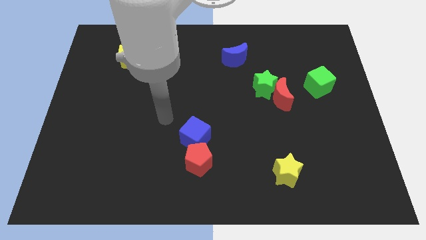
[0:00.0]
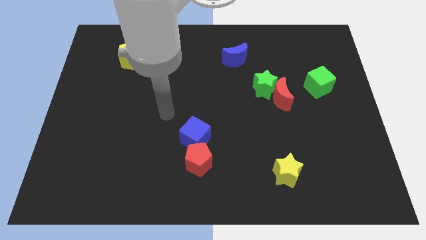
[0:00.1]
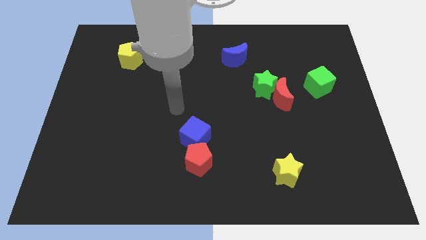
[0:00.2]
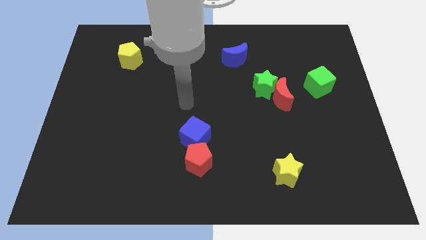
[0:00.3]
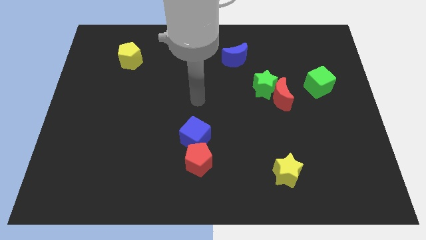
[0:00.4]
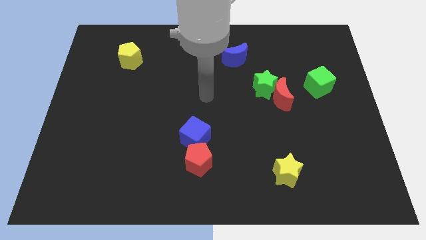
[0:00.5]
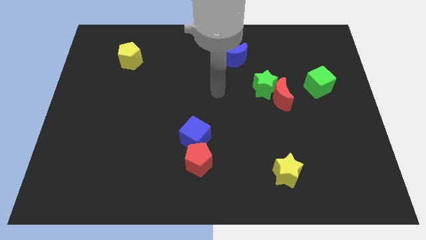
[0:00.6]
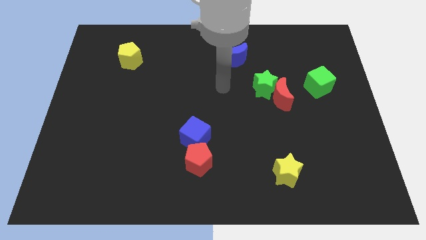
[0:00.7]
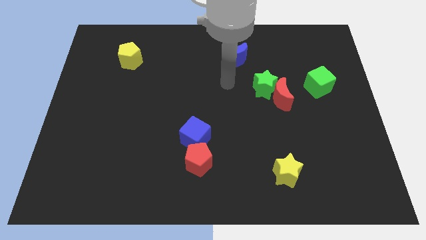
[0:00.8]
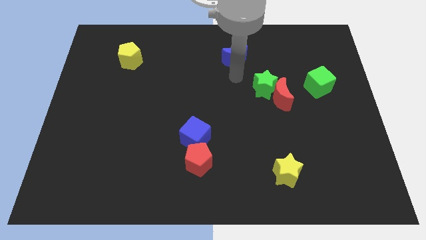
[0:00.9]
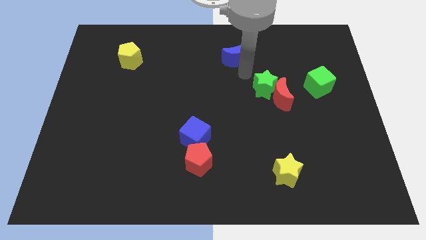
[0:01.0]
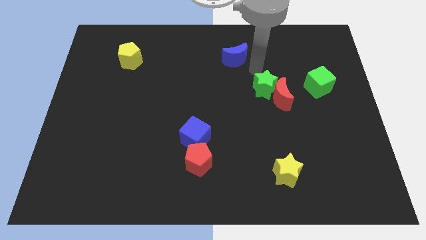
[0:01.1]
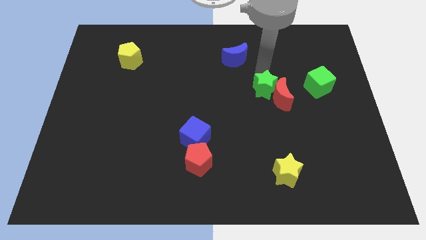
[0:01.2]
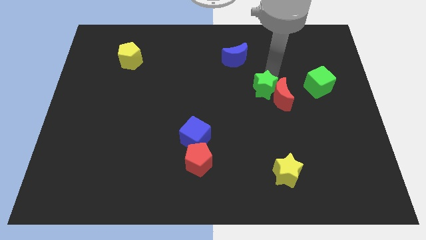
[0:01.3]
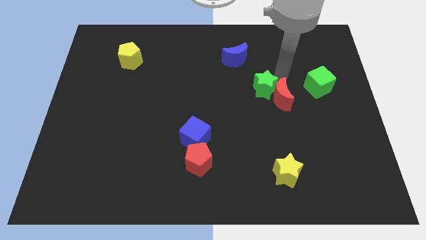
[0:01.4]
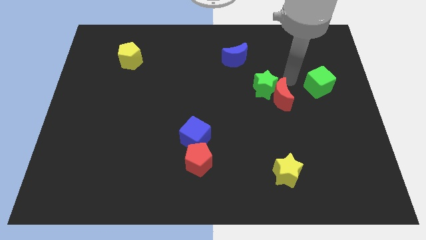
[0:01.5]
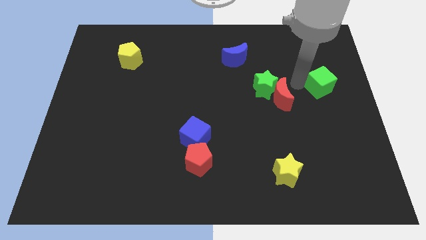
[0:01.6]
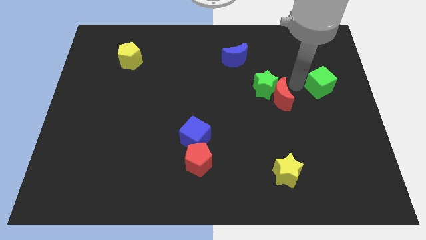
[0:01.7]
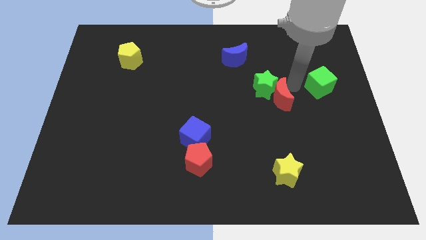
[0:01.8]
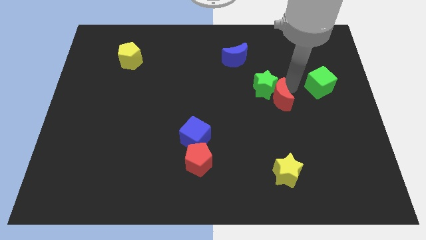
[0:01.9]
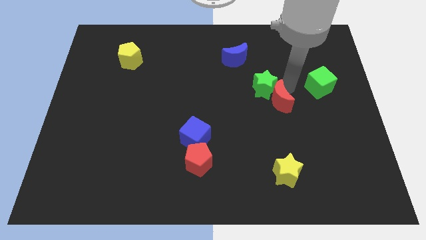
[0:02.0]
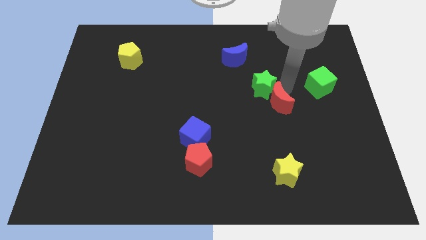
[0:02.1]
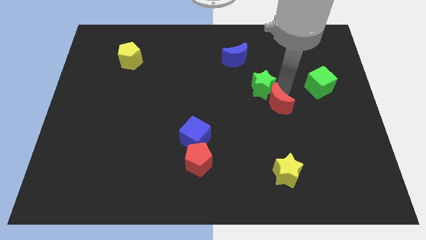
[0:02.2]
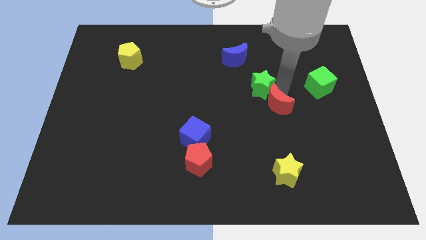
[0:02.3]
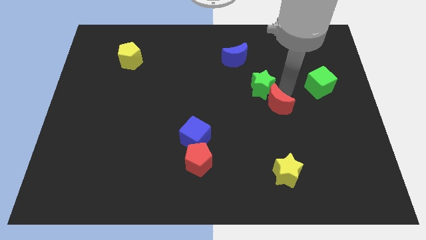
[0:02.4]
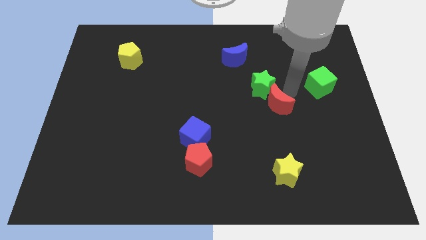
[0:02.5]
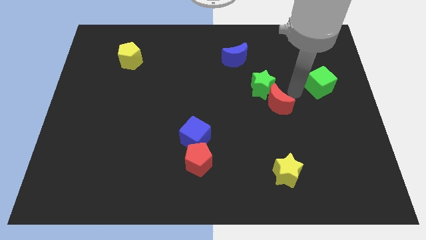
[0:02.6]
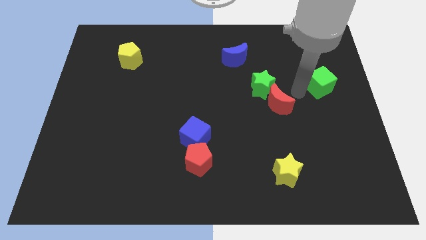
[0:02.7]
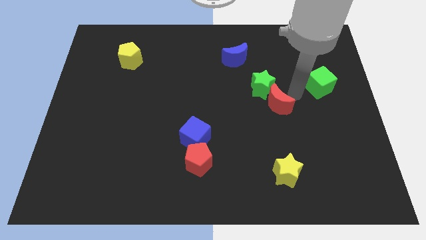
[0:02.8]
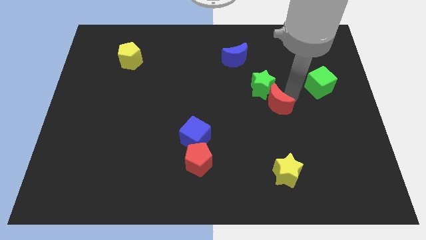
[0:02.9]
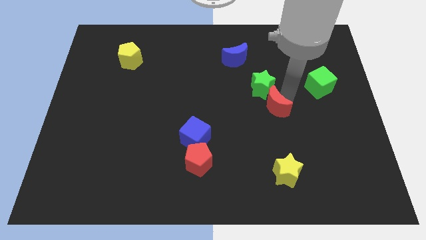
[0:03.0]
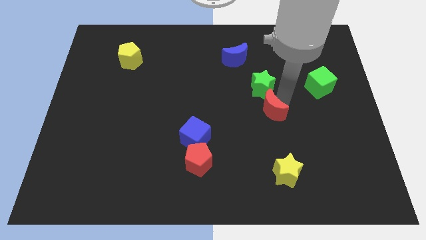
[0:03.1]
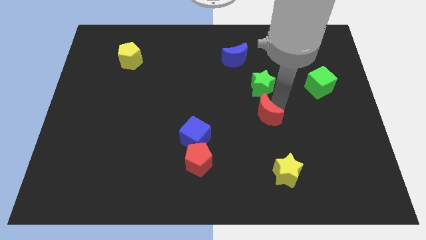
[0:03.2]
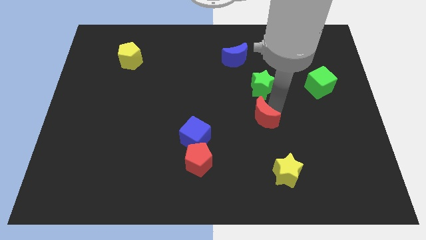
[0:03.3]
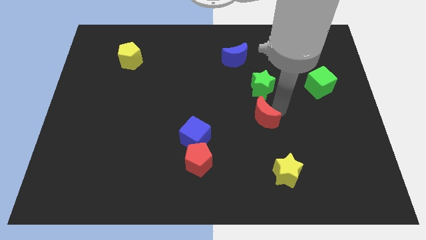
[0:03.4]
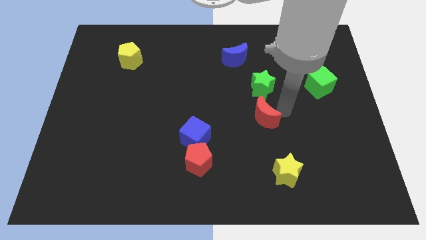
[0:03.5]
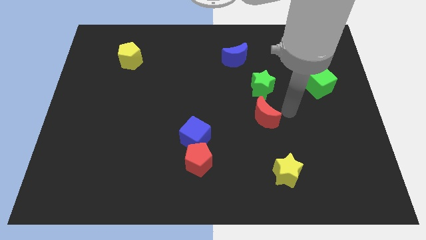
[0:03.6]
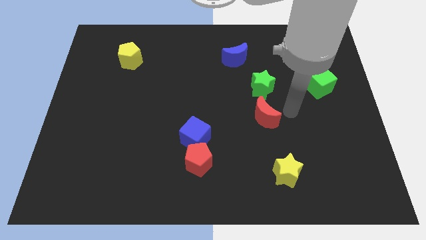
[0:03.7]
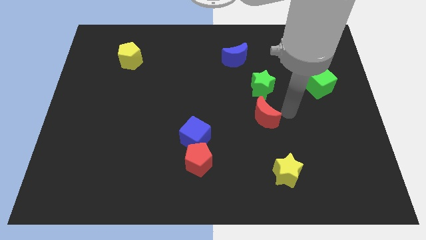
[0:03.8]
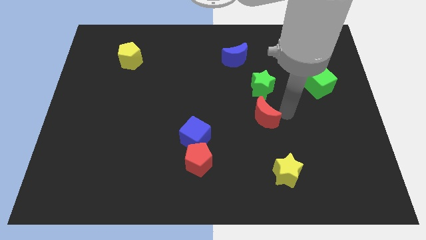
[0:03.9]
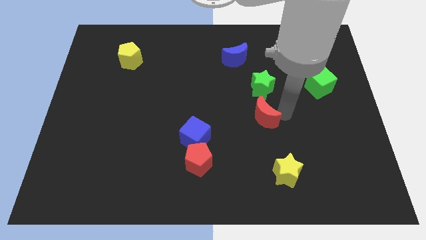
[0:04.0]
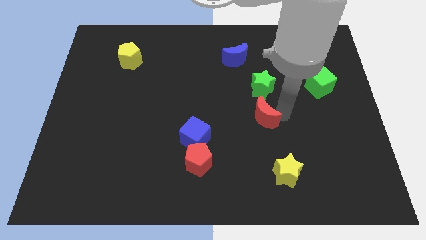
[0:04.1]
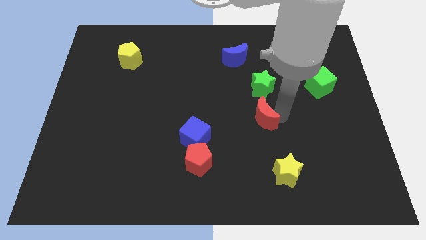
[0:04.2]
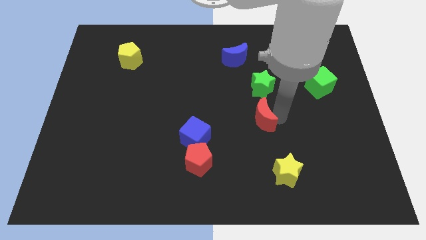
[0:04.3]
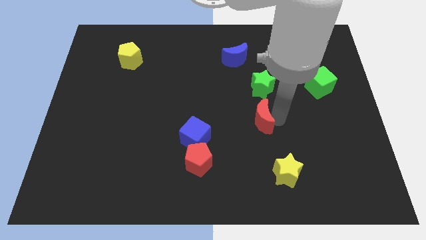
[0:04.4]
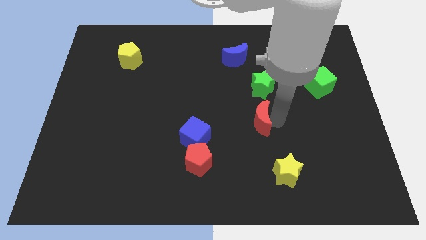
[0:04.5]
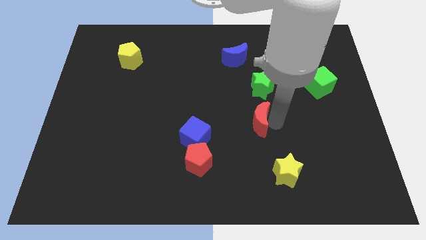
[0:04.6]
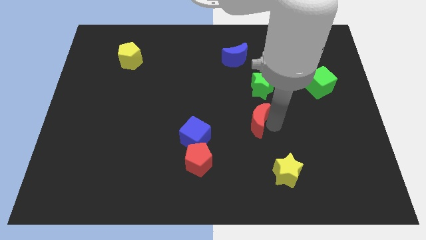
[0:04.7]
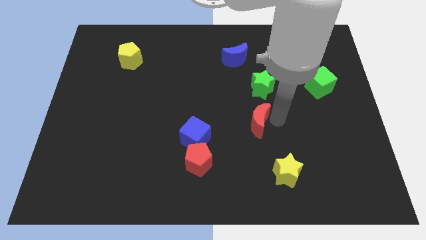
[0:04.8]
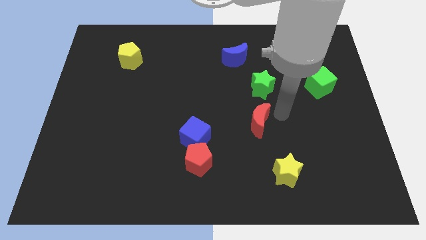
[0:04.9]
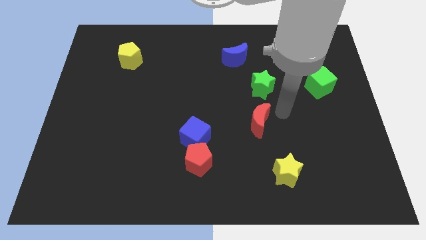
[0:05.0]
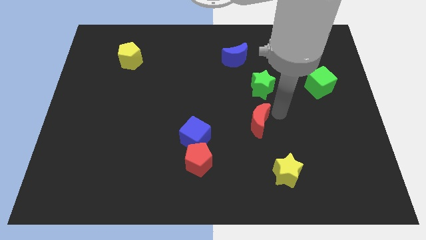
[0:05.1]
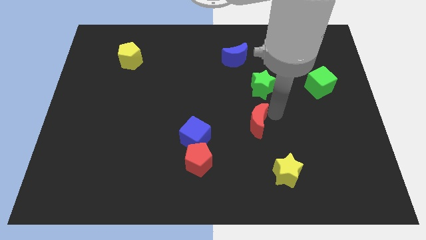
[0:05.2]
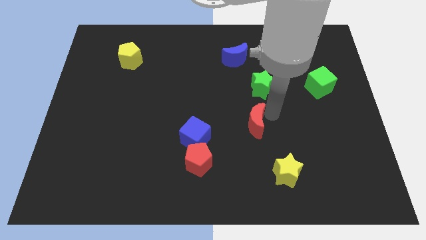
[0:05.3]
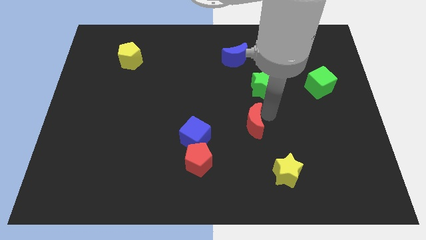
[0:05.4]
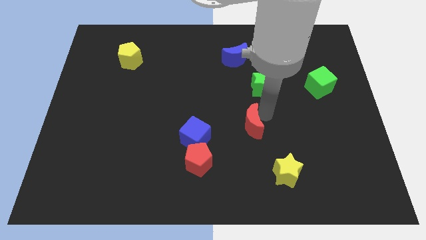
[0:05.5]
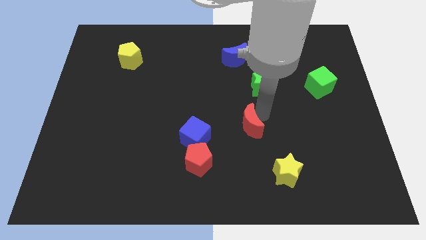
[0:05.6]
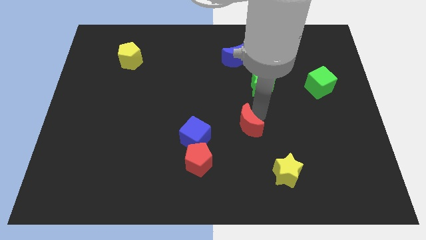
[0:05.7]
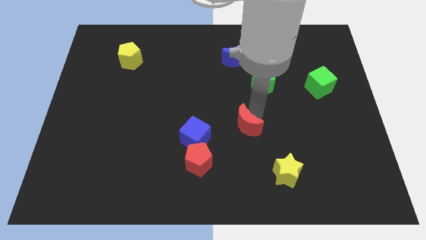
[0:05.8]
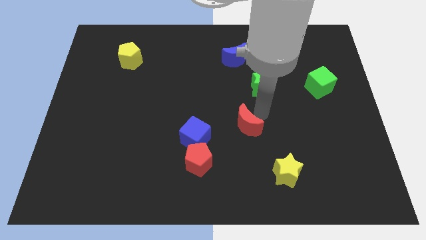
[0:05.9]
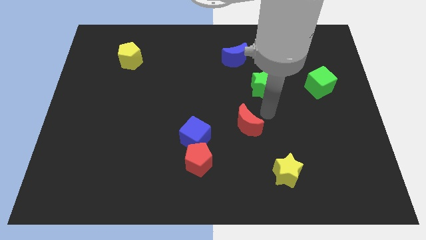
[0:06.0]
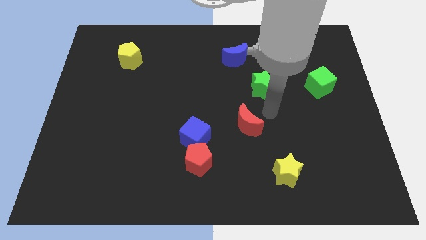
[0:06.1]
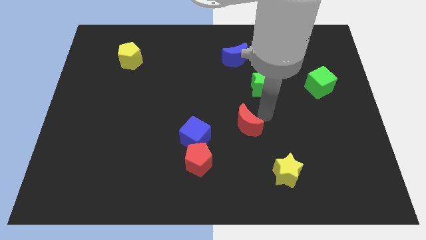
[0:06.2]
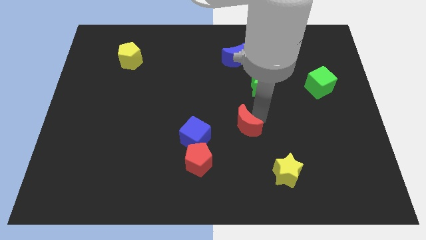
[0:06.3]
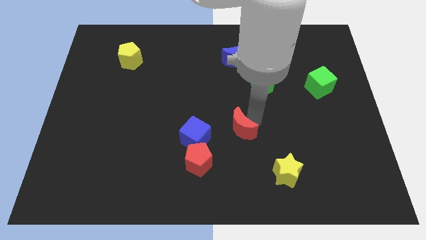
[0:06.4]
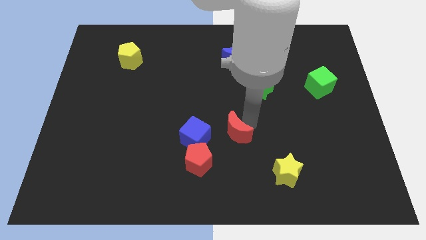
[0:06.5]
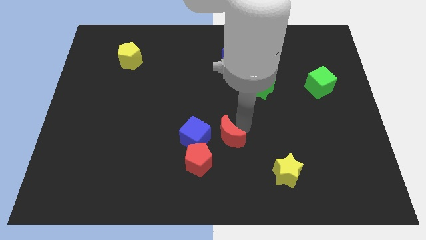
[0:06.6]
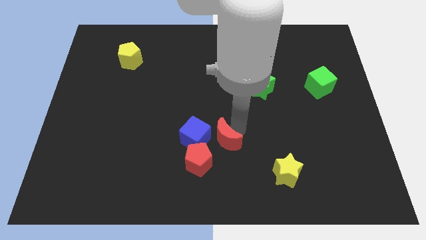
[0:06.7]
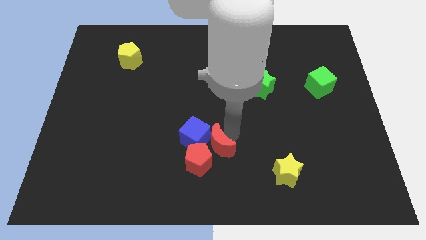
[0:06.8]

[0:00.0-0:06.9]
slide the red moon close to the red pentagon

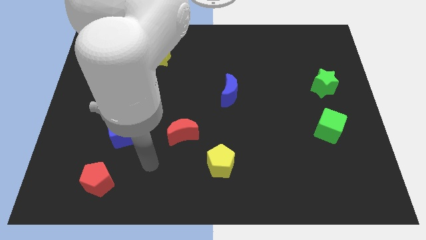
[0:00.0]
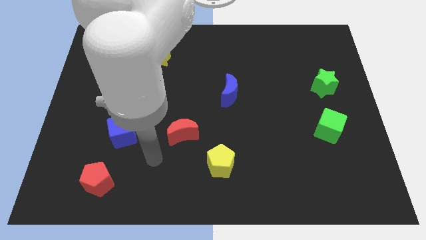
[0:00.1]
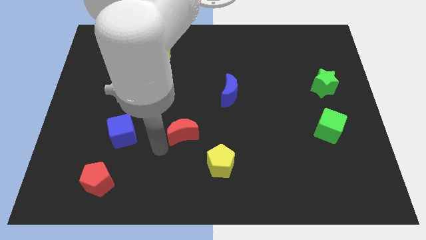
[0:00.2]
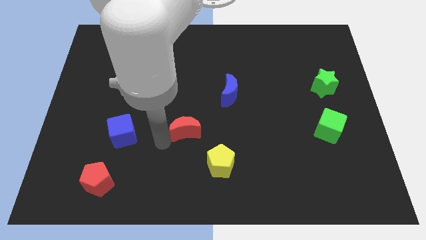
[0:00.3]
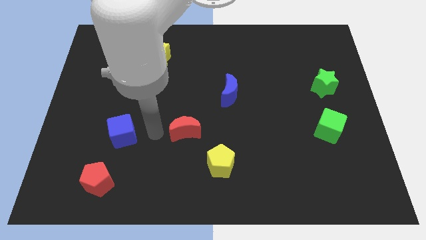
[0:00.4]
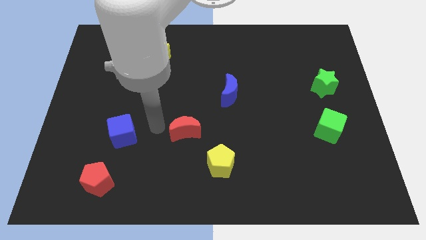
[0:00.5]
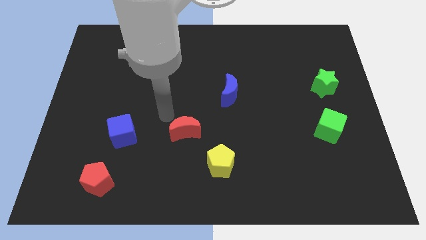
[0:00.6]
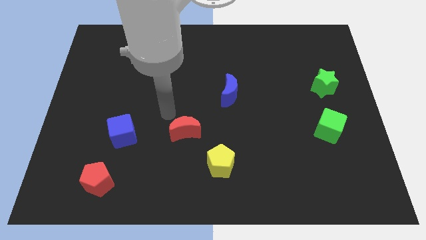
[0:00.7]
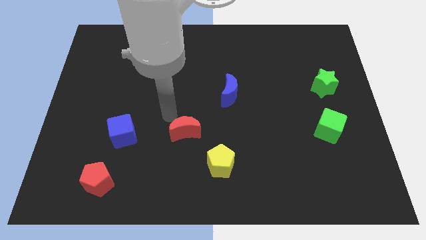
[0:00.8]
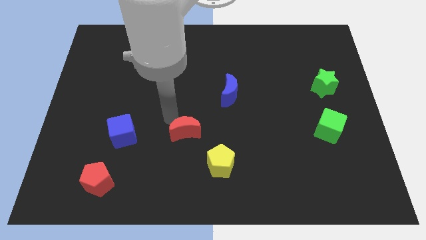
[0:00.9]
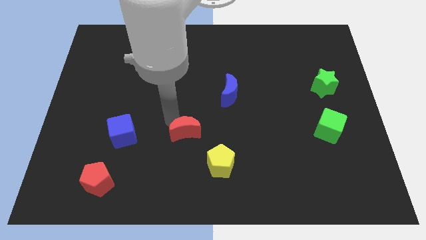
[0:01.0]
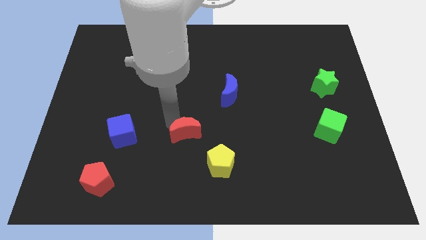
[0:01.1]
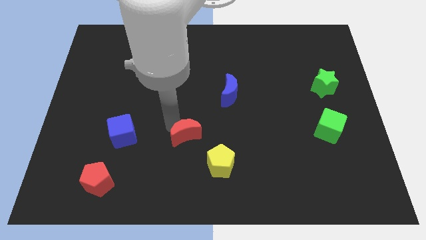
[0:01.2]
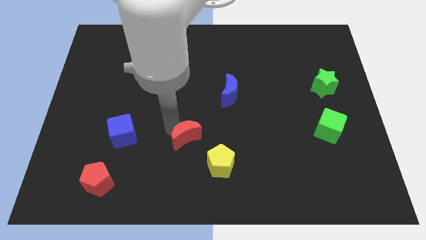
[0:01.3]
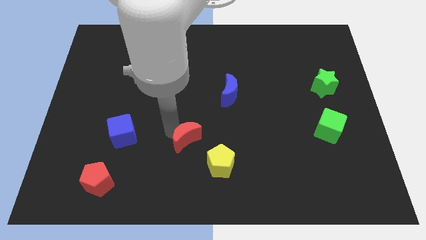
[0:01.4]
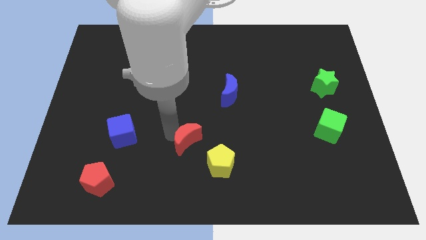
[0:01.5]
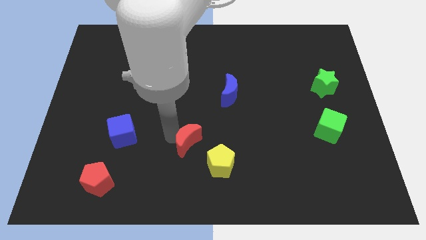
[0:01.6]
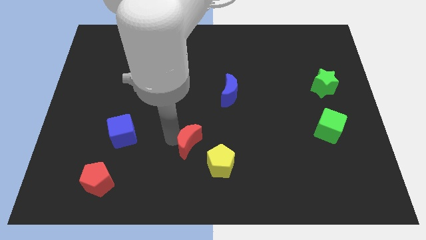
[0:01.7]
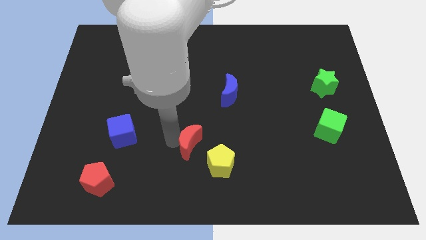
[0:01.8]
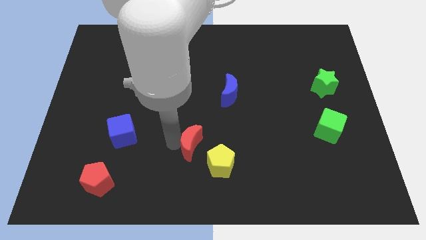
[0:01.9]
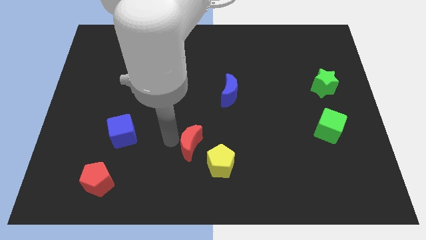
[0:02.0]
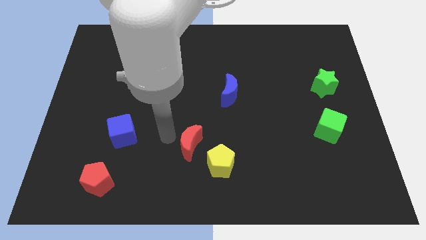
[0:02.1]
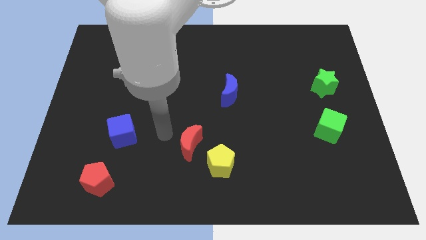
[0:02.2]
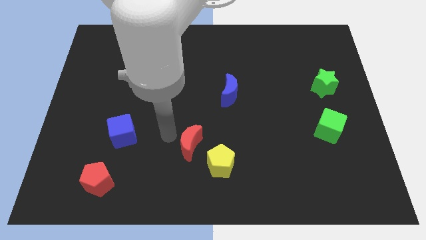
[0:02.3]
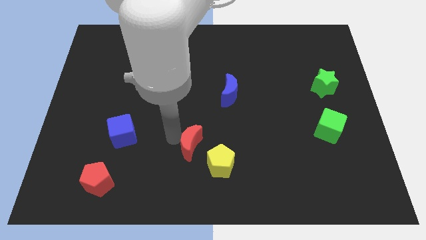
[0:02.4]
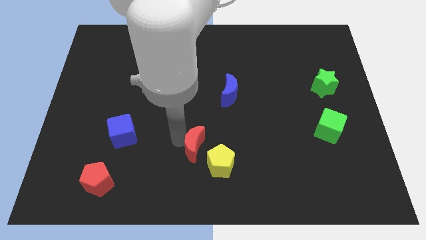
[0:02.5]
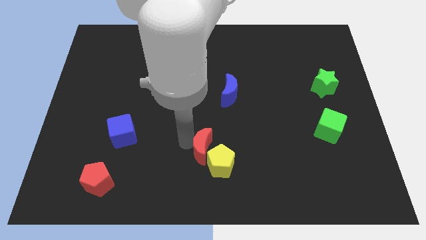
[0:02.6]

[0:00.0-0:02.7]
slide the red moon to the yellow pentagon
